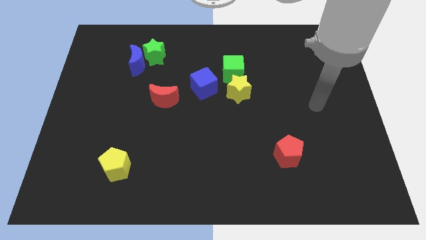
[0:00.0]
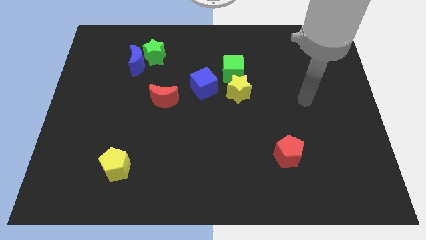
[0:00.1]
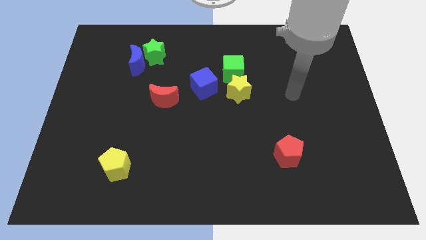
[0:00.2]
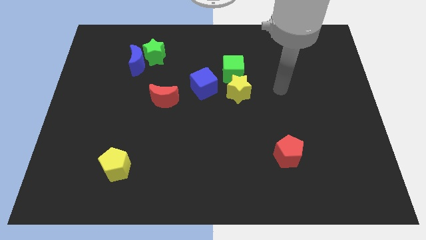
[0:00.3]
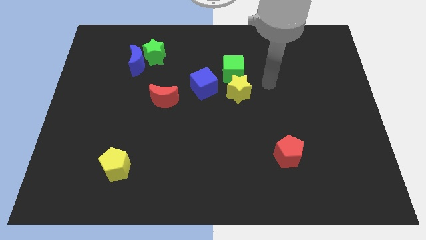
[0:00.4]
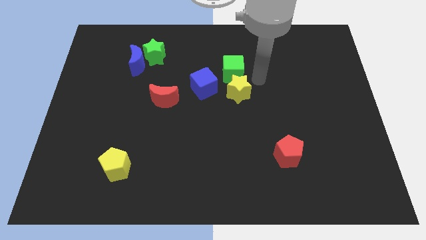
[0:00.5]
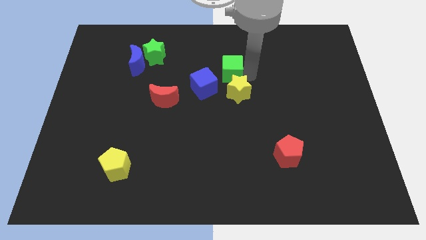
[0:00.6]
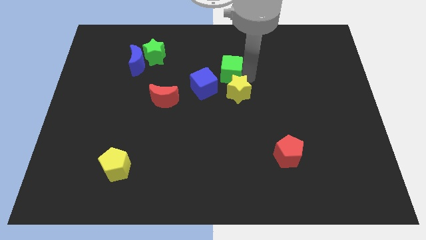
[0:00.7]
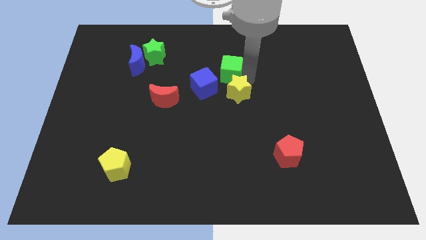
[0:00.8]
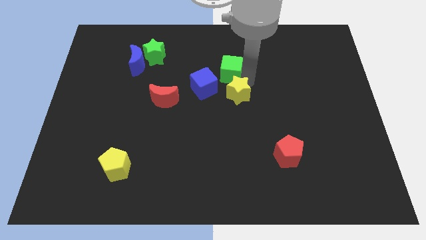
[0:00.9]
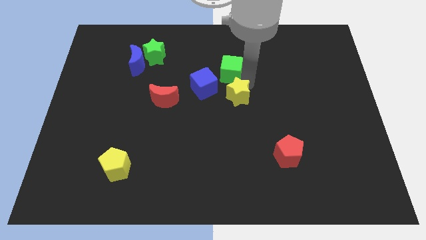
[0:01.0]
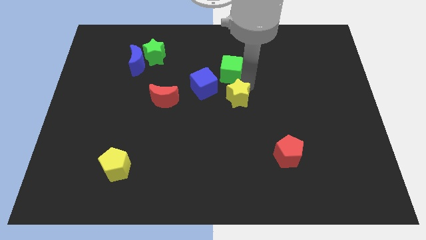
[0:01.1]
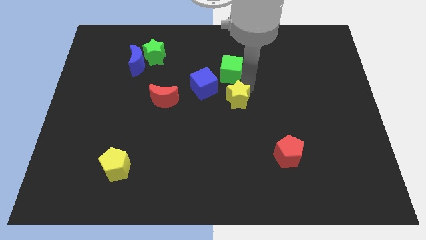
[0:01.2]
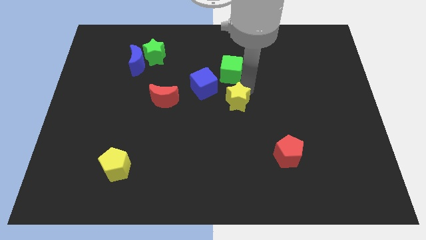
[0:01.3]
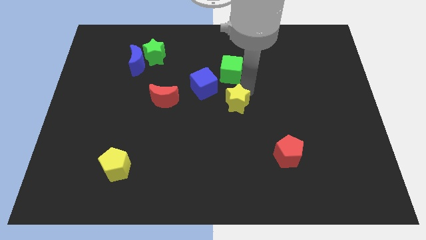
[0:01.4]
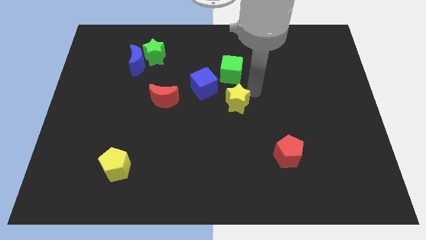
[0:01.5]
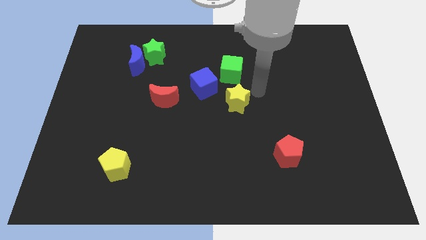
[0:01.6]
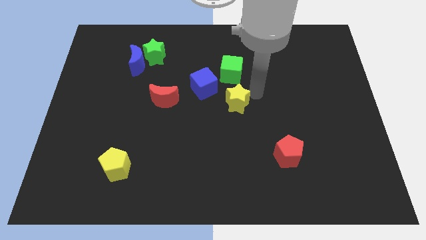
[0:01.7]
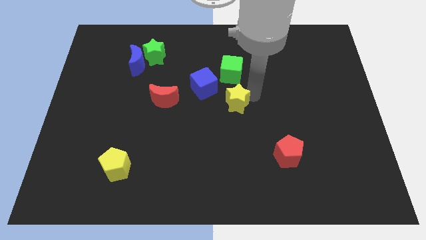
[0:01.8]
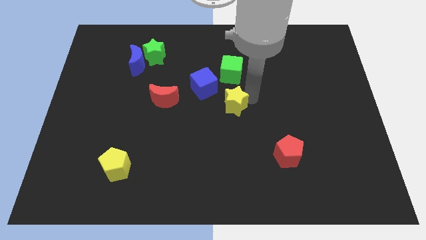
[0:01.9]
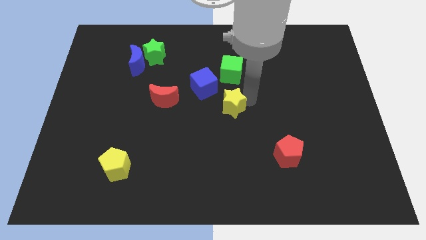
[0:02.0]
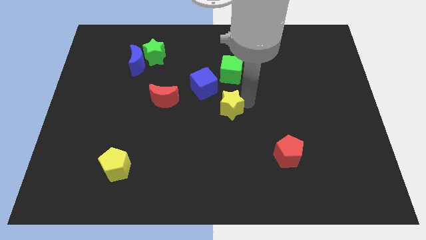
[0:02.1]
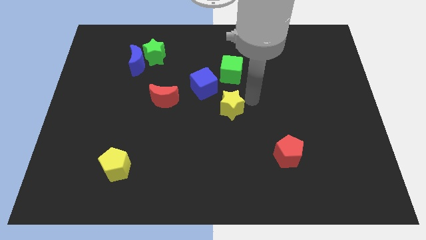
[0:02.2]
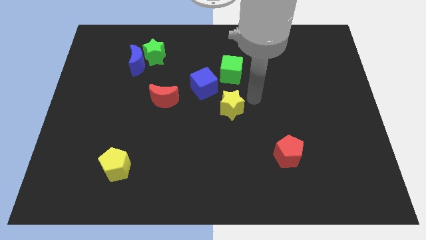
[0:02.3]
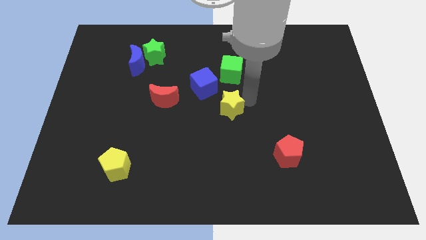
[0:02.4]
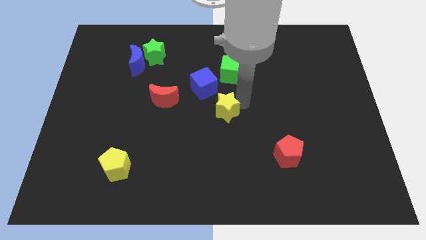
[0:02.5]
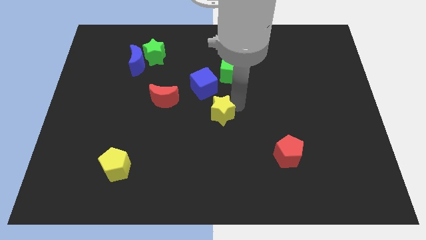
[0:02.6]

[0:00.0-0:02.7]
push the yellow star down and left somewhat

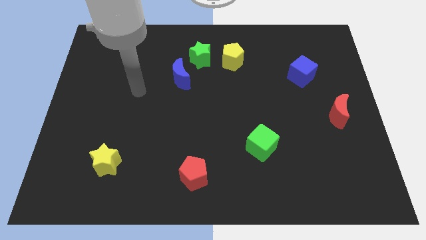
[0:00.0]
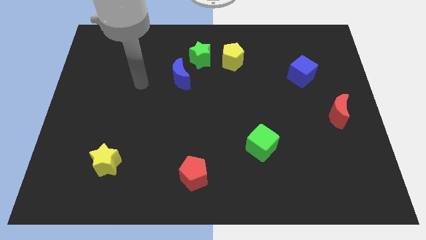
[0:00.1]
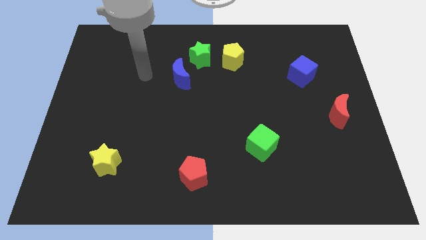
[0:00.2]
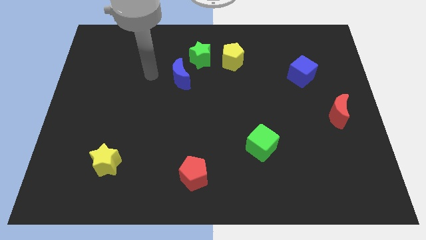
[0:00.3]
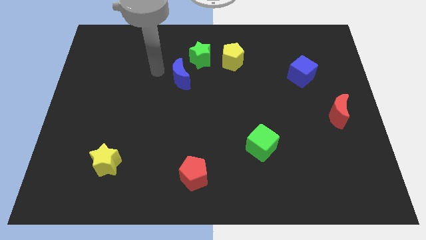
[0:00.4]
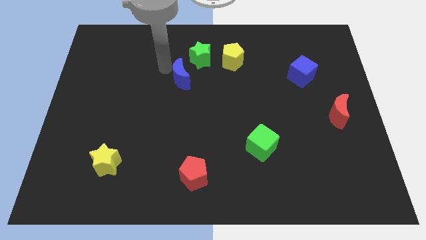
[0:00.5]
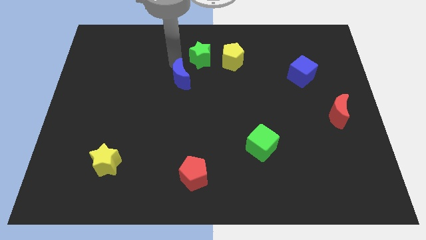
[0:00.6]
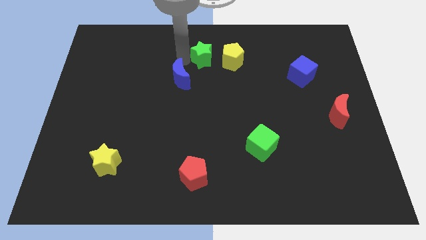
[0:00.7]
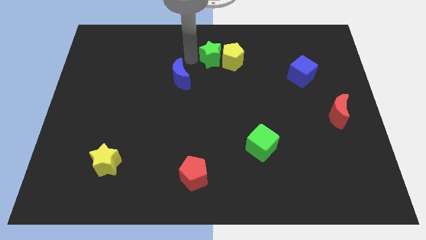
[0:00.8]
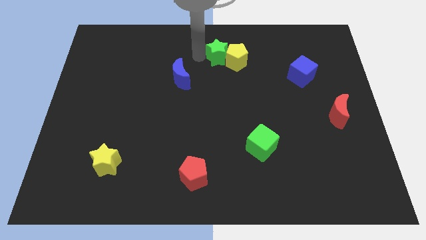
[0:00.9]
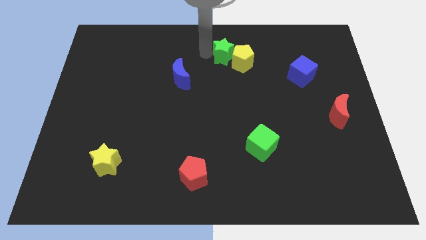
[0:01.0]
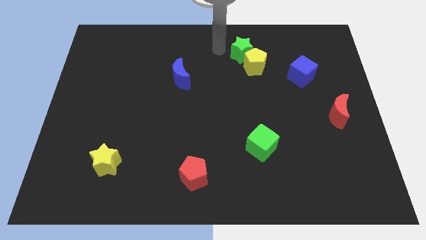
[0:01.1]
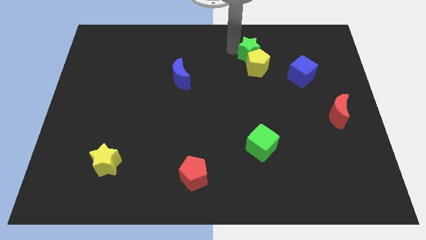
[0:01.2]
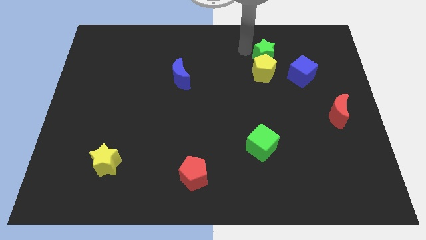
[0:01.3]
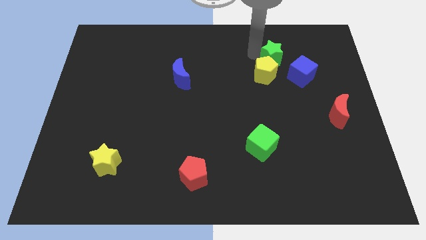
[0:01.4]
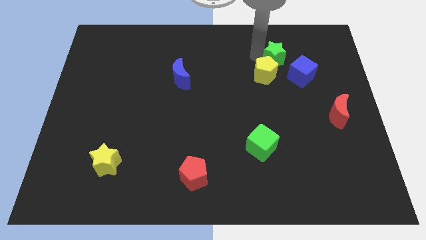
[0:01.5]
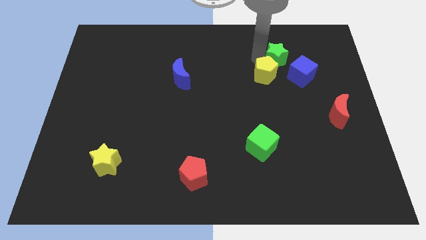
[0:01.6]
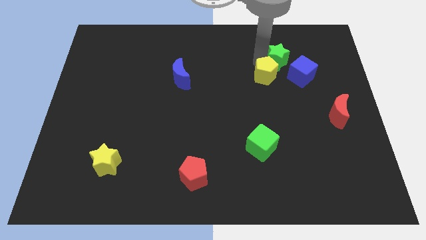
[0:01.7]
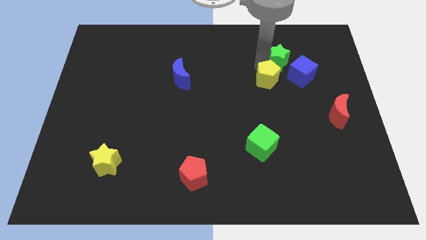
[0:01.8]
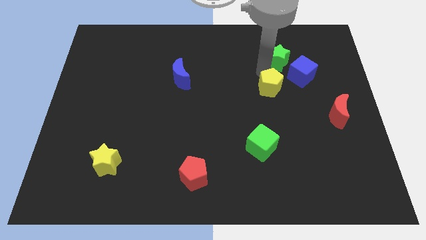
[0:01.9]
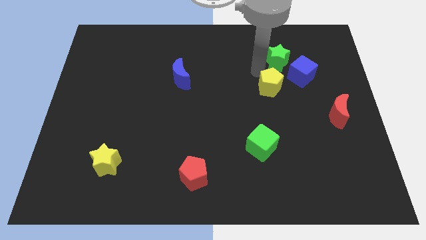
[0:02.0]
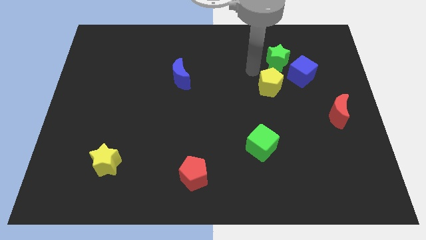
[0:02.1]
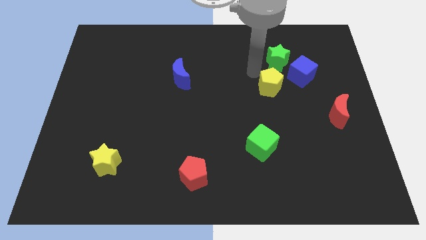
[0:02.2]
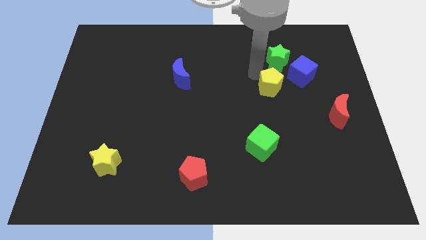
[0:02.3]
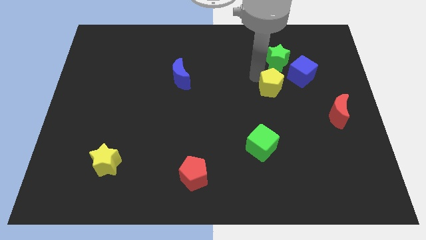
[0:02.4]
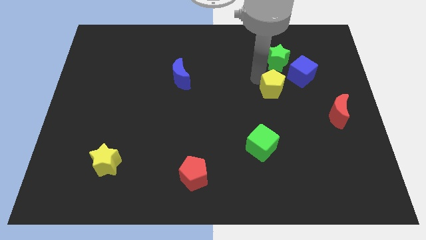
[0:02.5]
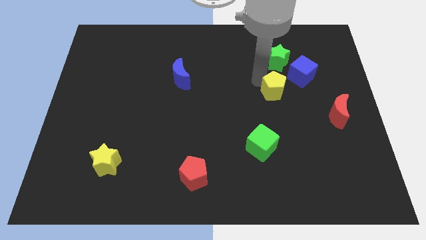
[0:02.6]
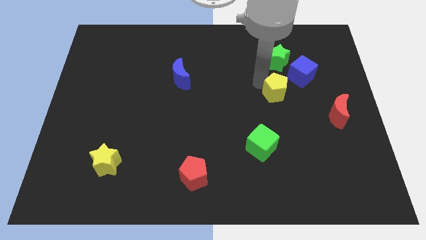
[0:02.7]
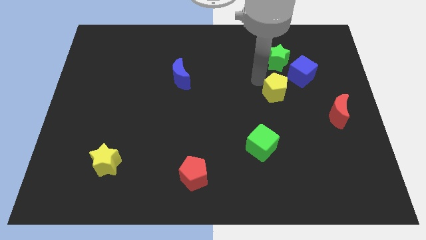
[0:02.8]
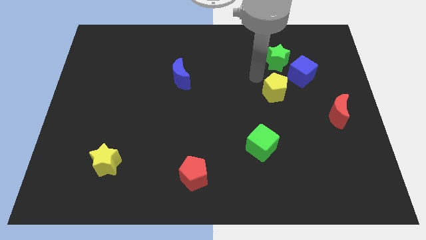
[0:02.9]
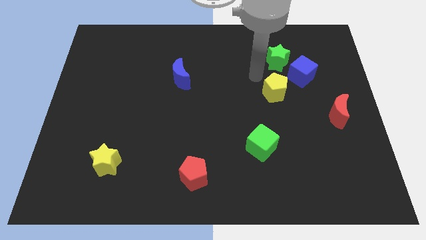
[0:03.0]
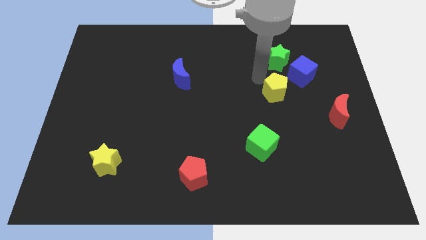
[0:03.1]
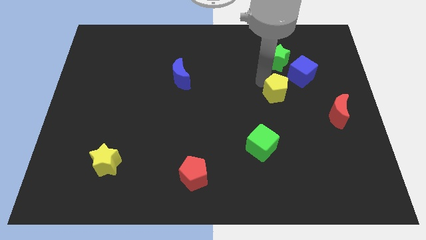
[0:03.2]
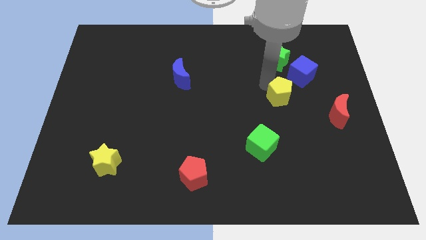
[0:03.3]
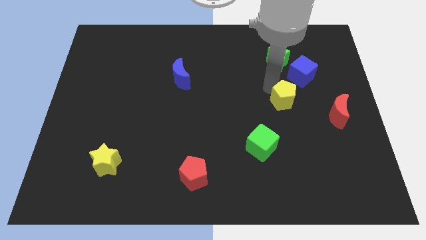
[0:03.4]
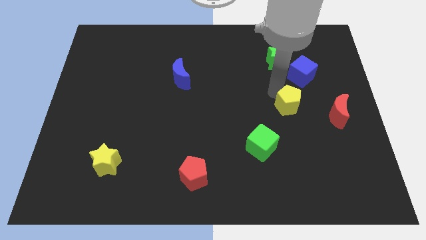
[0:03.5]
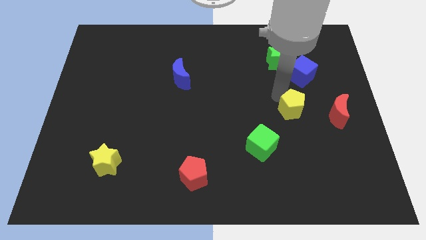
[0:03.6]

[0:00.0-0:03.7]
push the yellow pentagon downwards and then to the right

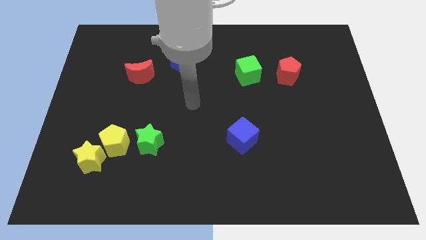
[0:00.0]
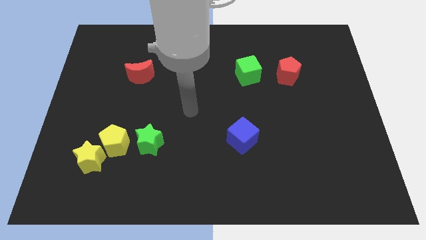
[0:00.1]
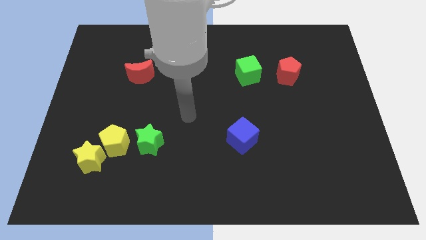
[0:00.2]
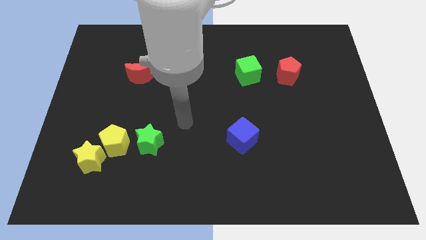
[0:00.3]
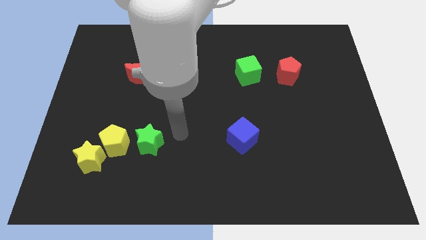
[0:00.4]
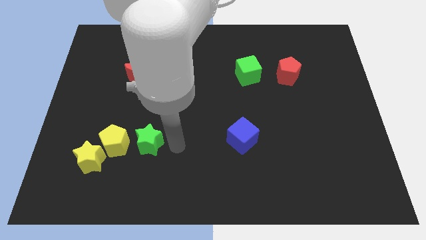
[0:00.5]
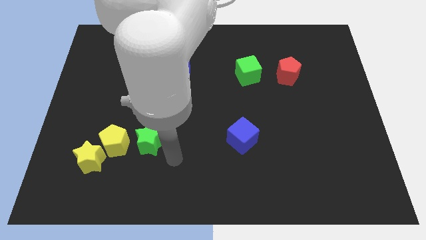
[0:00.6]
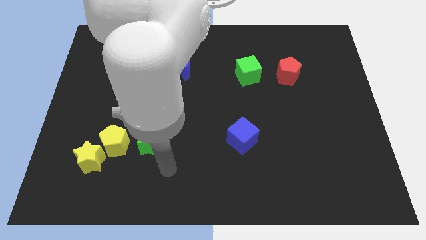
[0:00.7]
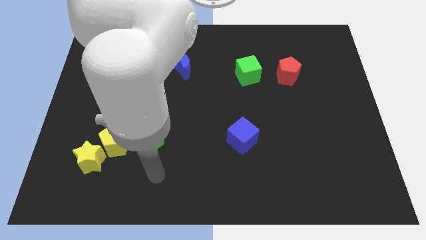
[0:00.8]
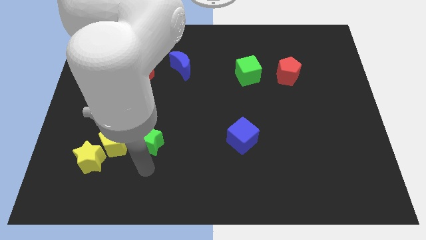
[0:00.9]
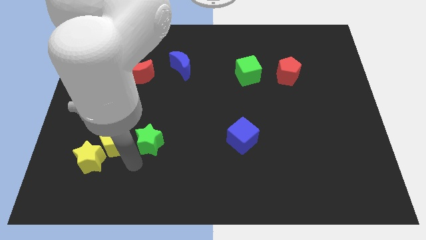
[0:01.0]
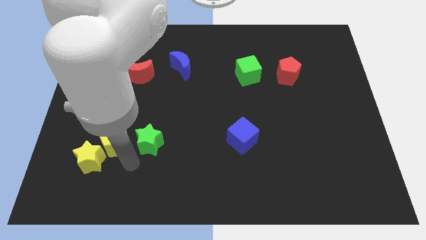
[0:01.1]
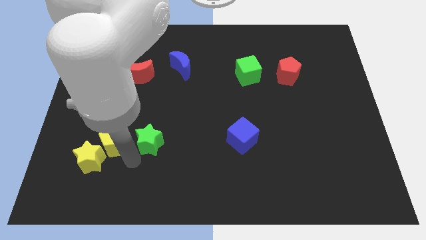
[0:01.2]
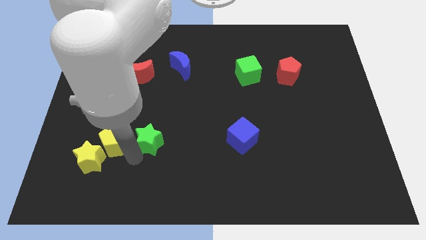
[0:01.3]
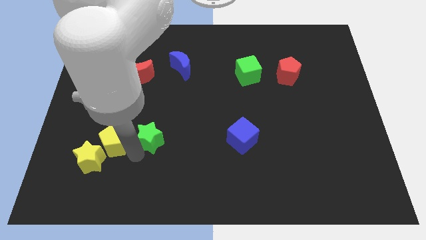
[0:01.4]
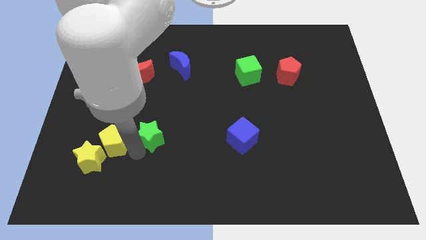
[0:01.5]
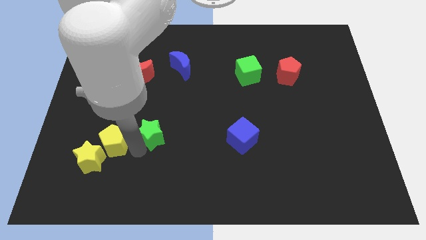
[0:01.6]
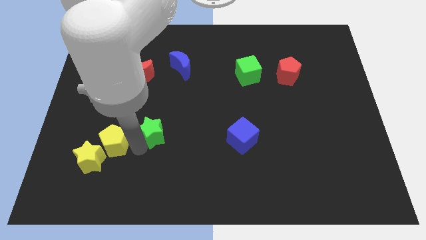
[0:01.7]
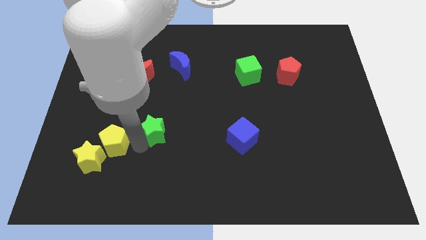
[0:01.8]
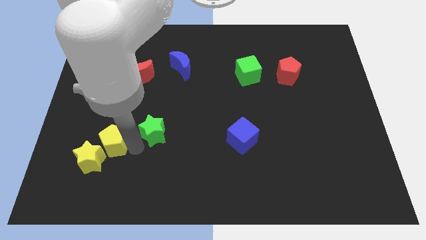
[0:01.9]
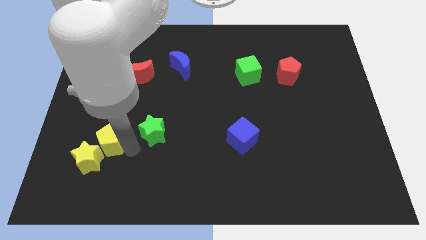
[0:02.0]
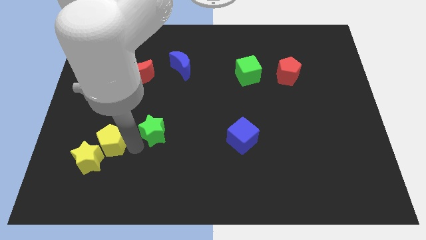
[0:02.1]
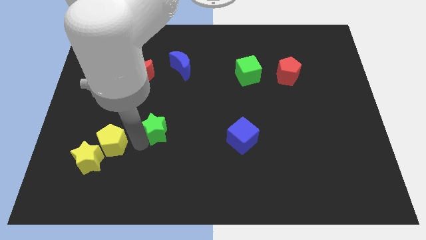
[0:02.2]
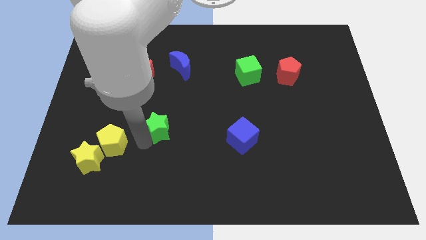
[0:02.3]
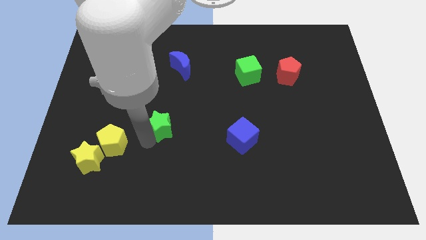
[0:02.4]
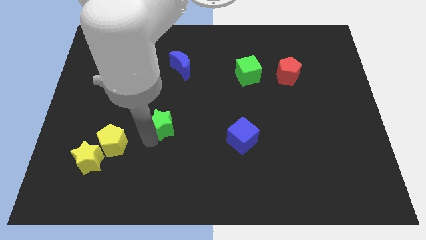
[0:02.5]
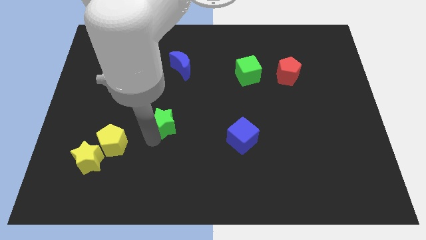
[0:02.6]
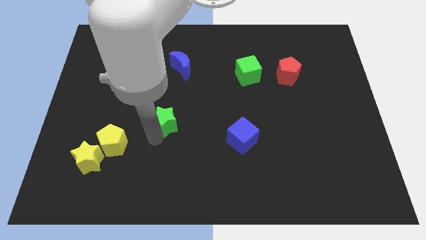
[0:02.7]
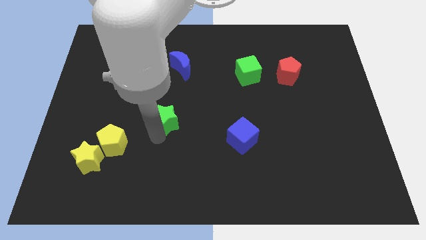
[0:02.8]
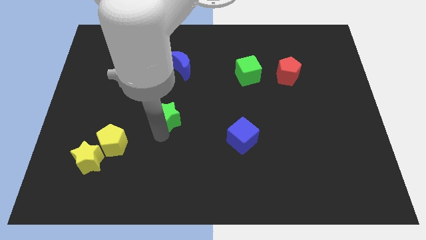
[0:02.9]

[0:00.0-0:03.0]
slide the green star a bit diagonally upwards and to the right
